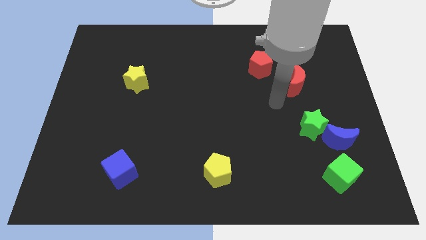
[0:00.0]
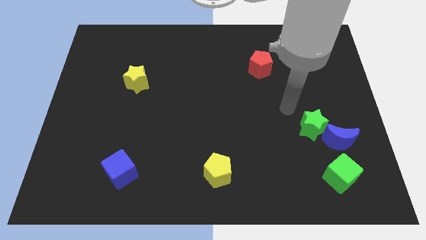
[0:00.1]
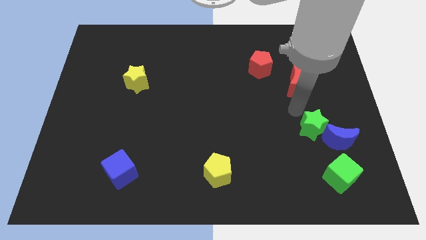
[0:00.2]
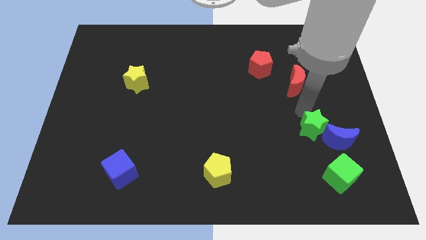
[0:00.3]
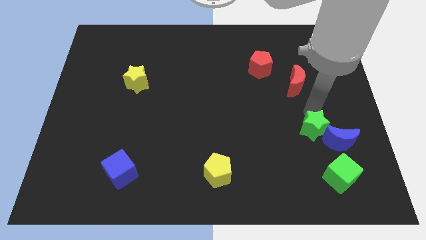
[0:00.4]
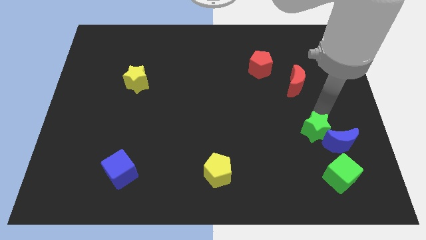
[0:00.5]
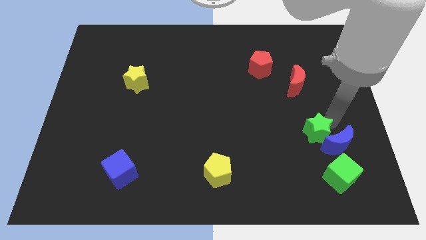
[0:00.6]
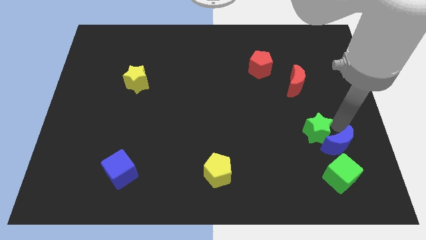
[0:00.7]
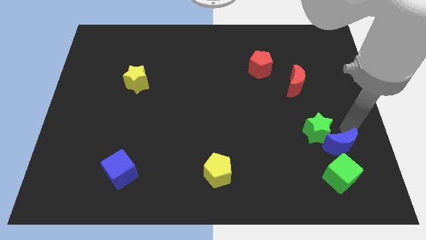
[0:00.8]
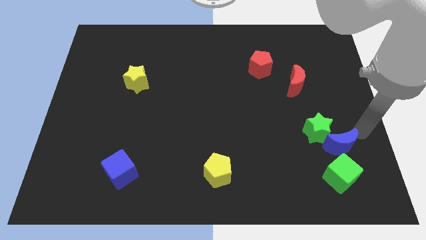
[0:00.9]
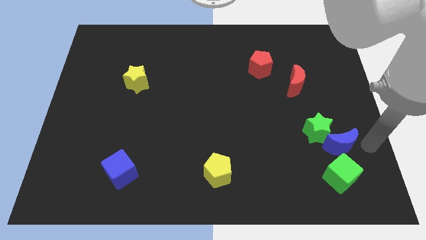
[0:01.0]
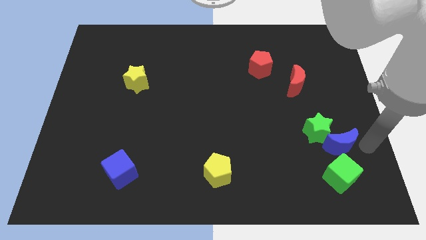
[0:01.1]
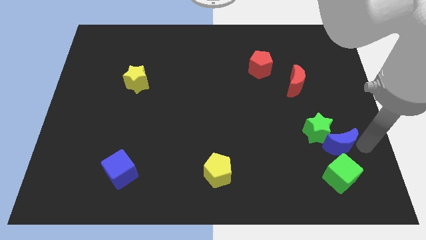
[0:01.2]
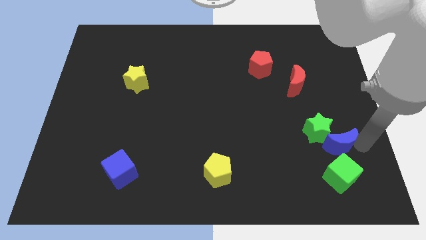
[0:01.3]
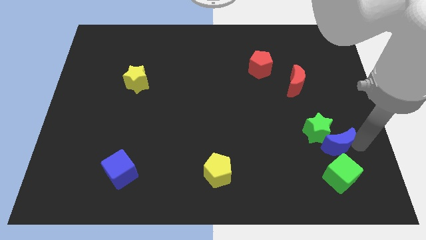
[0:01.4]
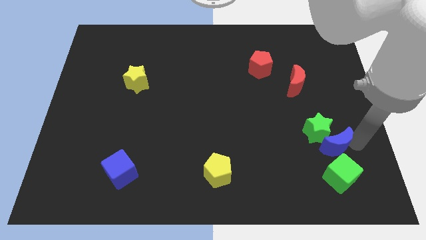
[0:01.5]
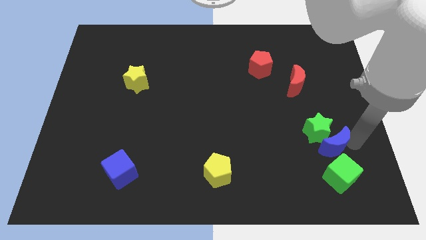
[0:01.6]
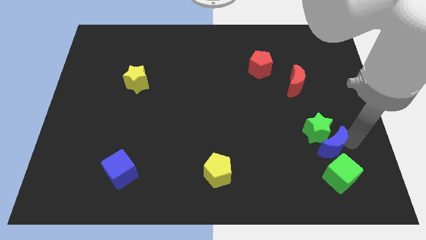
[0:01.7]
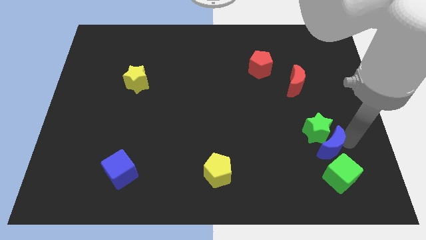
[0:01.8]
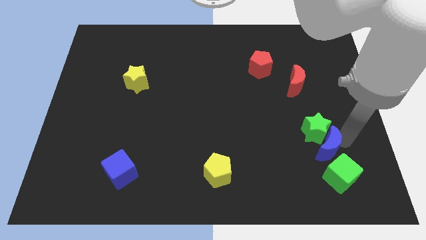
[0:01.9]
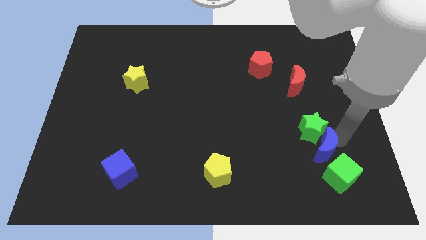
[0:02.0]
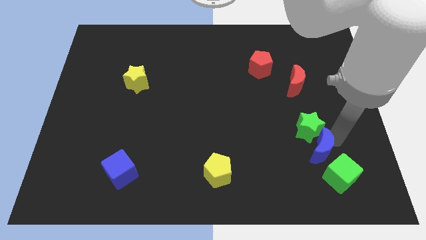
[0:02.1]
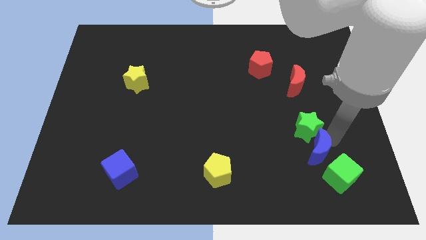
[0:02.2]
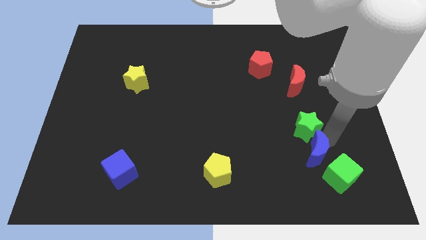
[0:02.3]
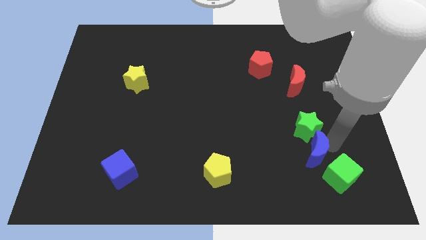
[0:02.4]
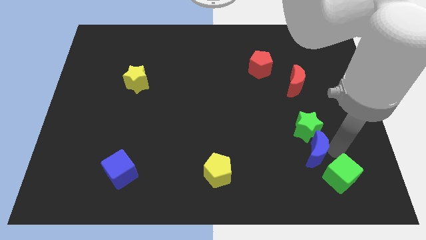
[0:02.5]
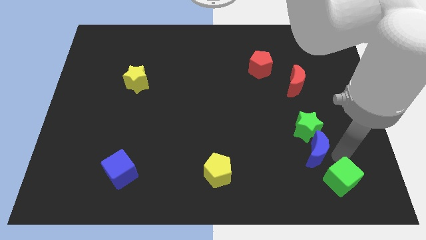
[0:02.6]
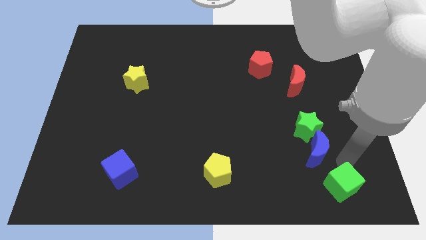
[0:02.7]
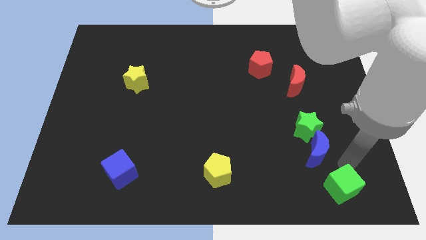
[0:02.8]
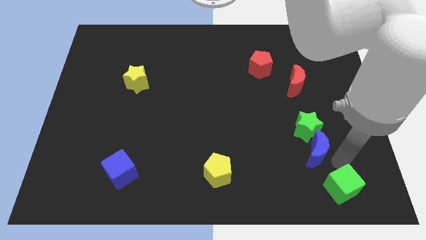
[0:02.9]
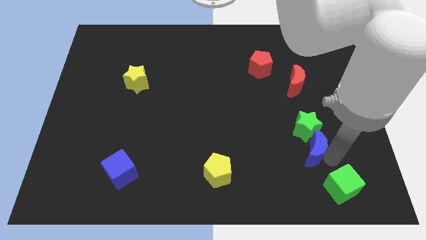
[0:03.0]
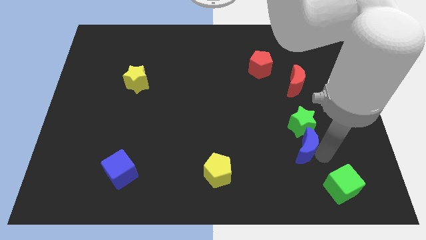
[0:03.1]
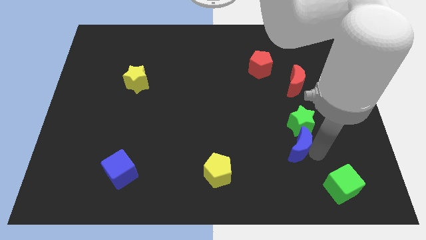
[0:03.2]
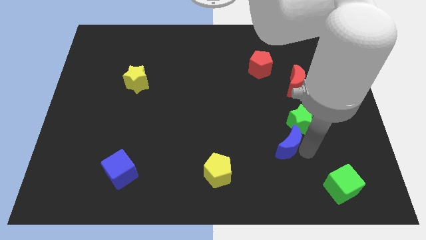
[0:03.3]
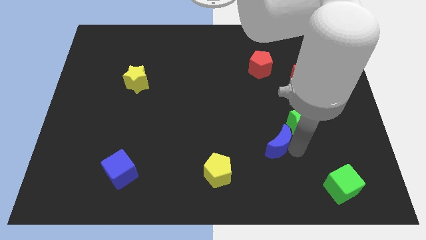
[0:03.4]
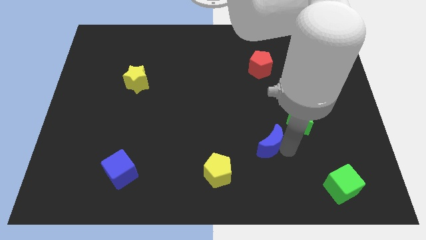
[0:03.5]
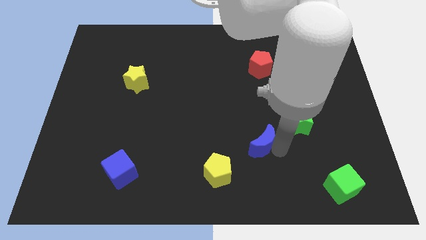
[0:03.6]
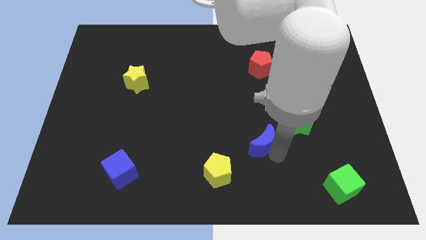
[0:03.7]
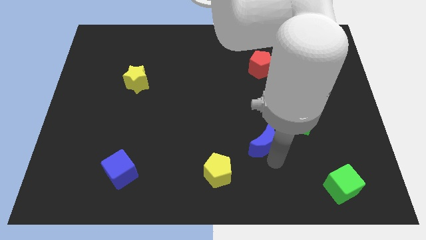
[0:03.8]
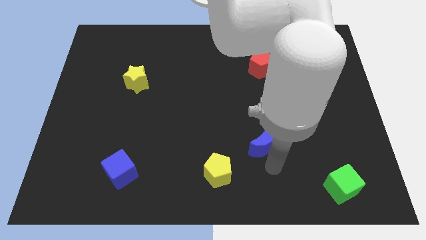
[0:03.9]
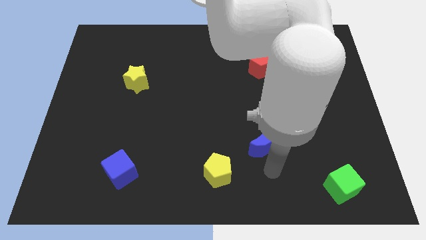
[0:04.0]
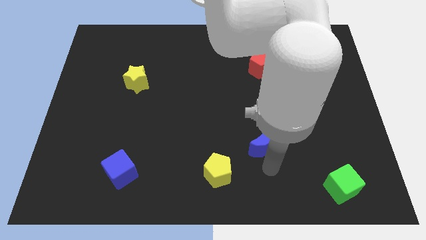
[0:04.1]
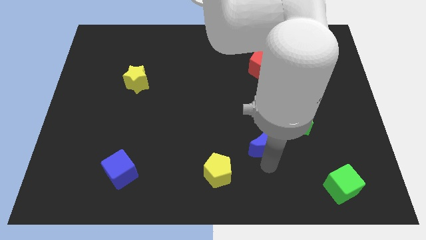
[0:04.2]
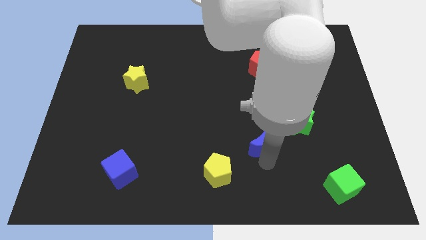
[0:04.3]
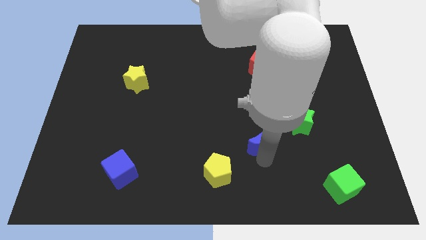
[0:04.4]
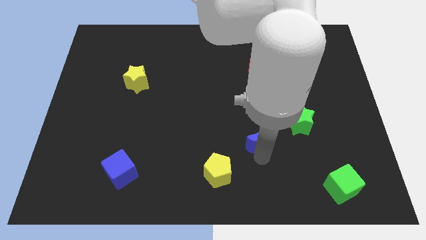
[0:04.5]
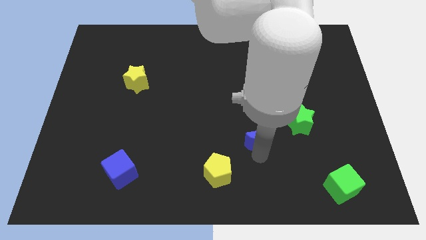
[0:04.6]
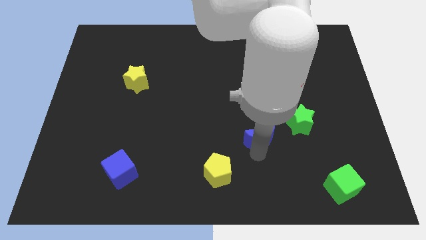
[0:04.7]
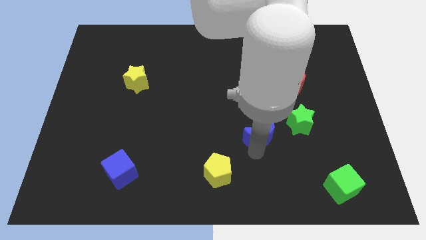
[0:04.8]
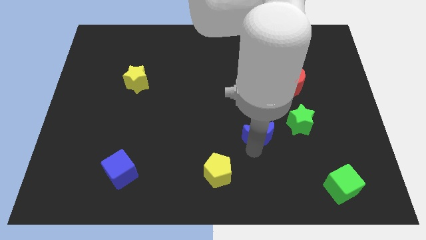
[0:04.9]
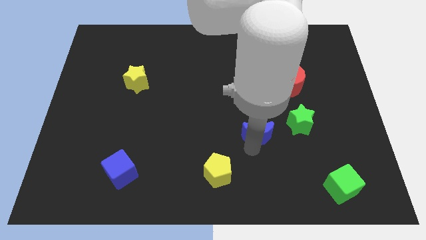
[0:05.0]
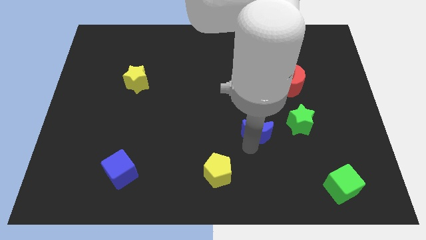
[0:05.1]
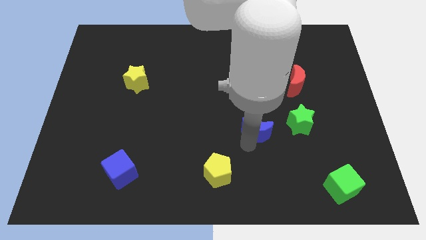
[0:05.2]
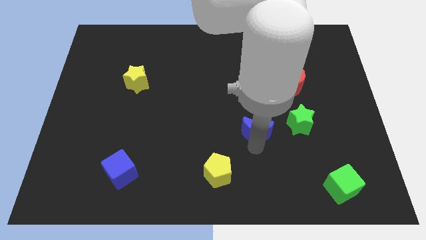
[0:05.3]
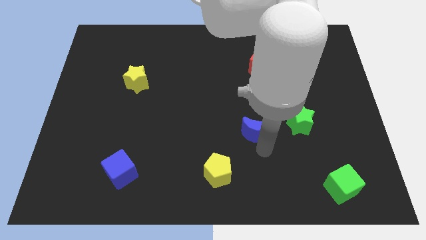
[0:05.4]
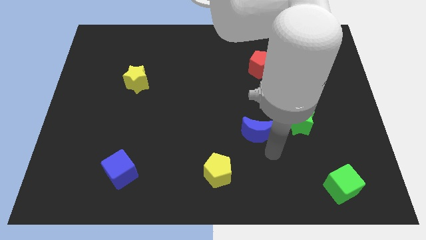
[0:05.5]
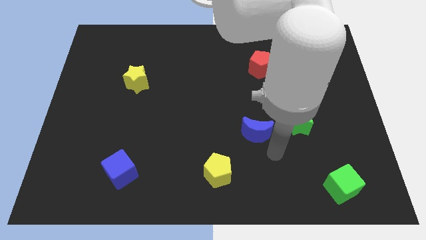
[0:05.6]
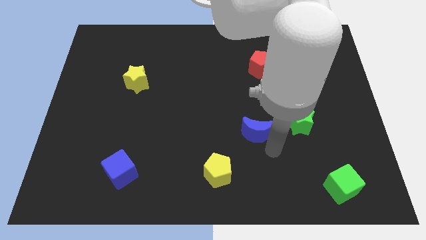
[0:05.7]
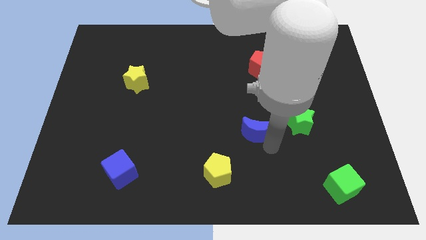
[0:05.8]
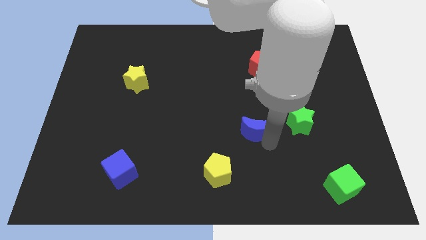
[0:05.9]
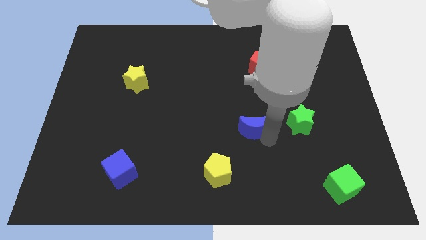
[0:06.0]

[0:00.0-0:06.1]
push the blue moon to the center of the board
